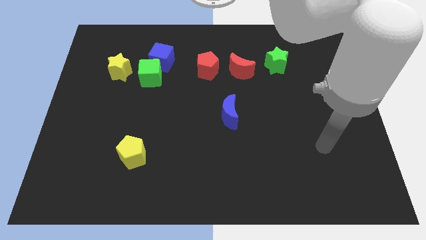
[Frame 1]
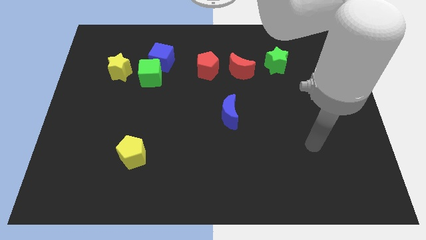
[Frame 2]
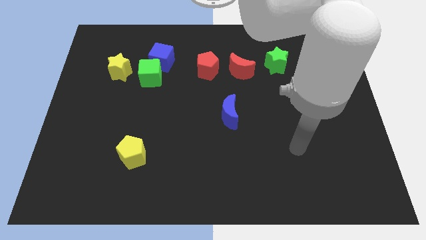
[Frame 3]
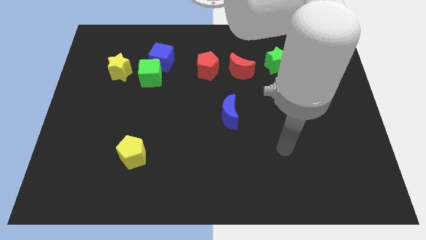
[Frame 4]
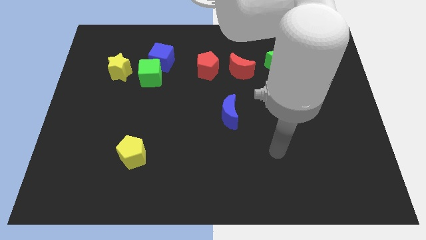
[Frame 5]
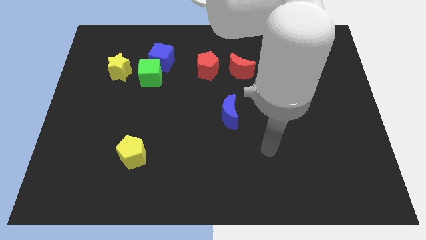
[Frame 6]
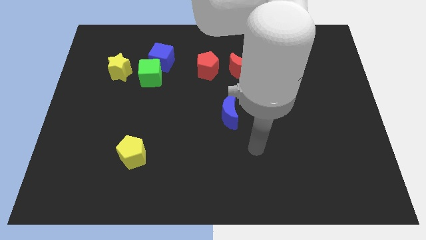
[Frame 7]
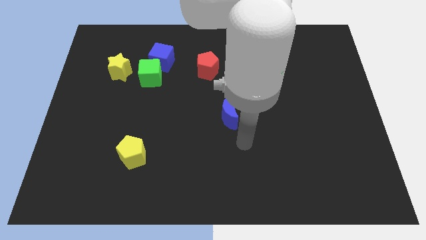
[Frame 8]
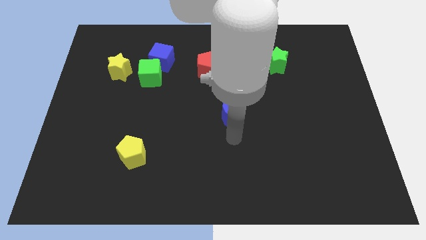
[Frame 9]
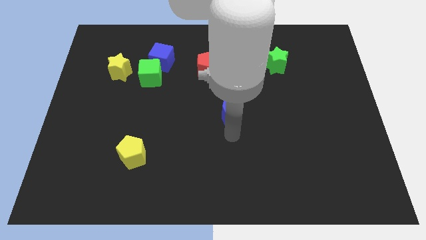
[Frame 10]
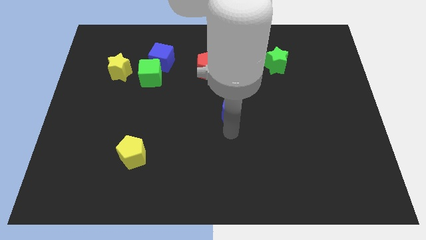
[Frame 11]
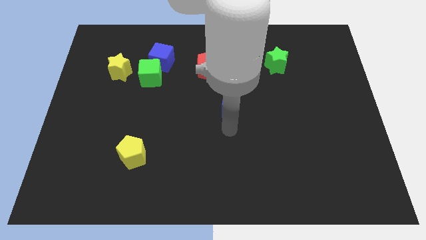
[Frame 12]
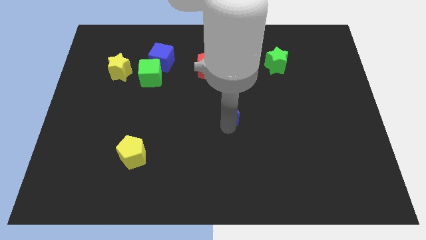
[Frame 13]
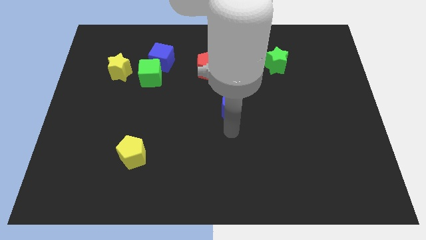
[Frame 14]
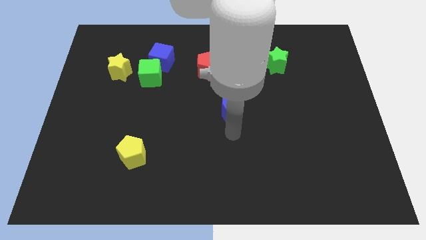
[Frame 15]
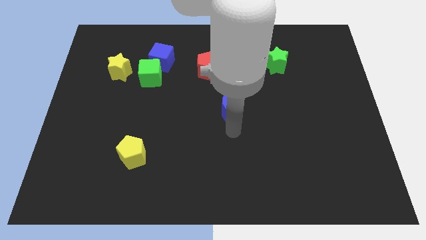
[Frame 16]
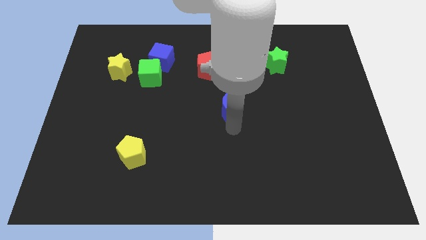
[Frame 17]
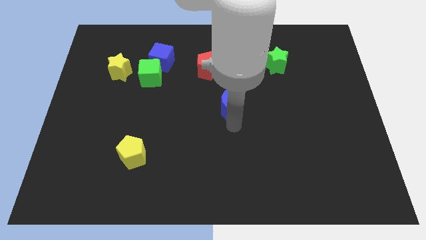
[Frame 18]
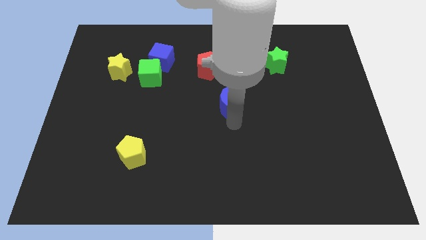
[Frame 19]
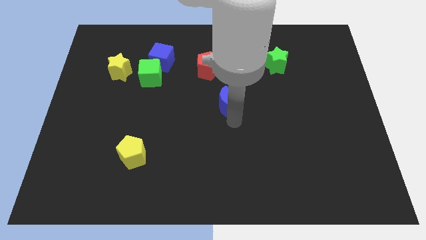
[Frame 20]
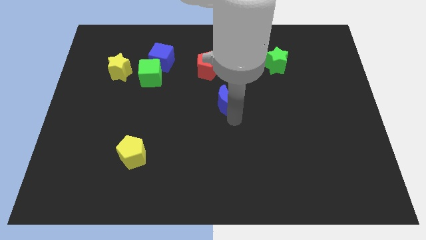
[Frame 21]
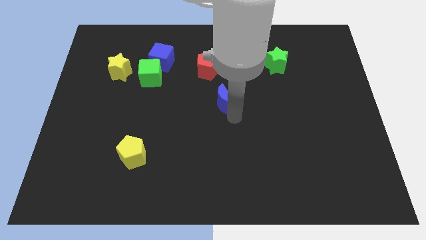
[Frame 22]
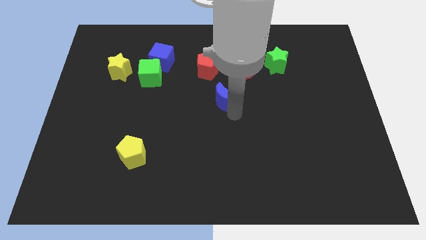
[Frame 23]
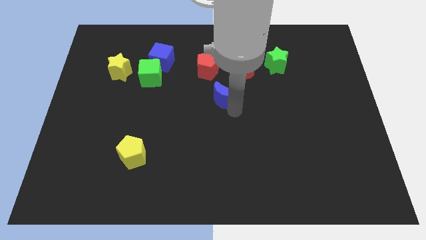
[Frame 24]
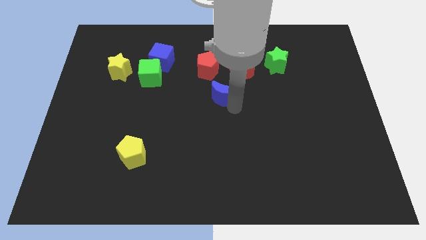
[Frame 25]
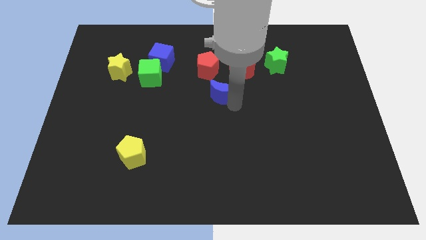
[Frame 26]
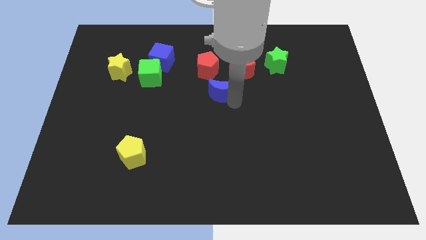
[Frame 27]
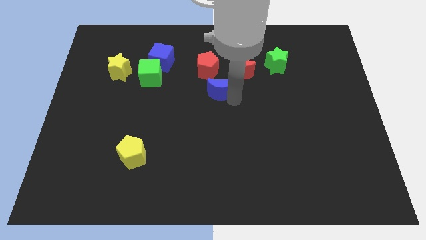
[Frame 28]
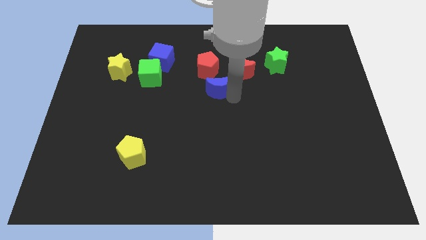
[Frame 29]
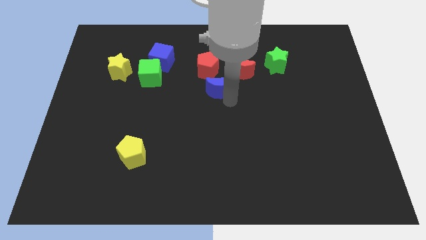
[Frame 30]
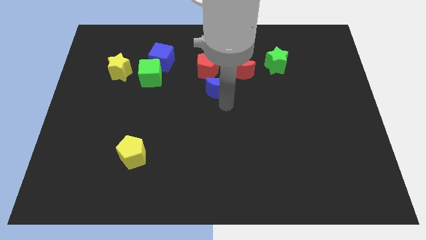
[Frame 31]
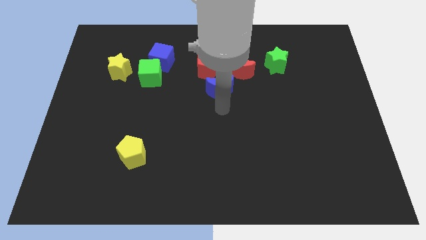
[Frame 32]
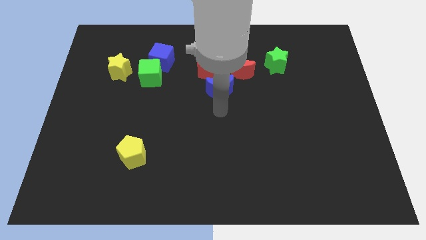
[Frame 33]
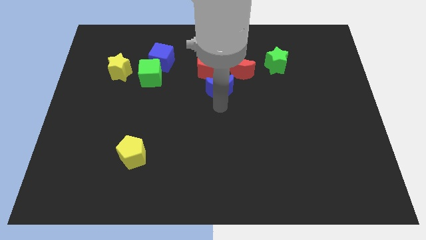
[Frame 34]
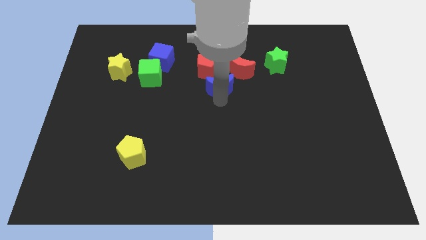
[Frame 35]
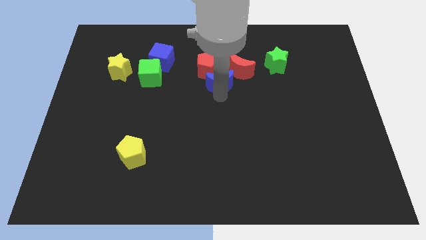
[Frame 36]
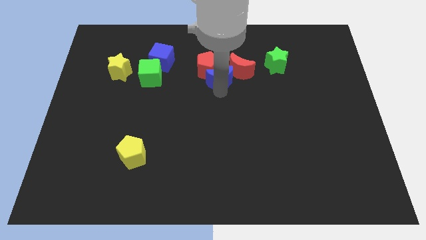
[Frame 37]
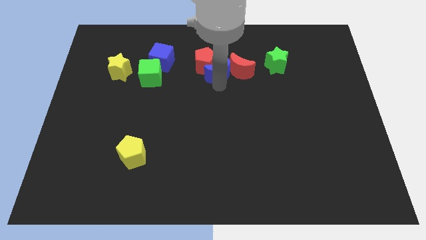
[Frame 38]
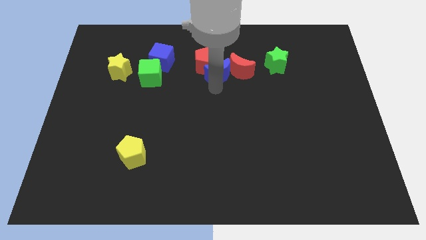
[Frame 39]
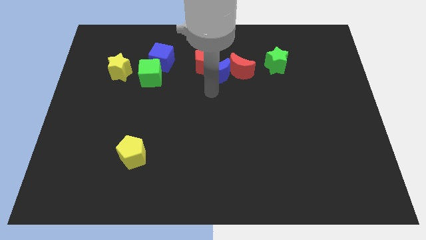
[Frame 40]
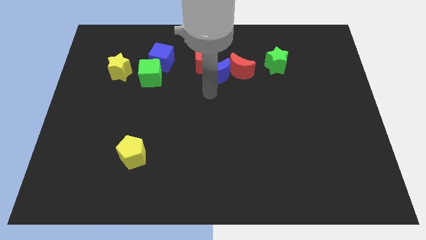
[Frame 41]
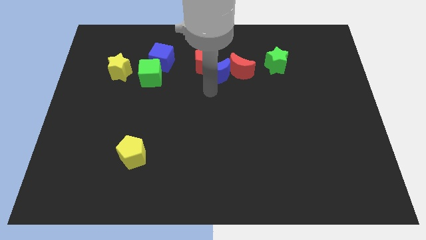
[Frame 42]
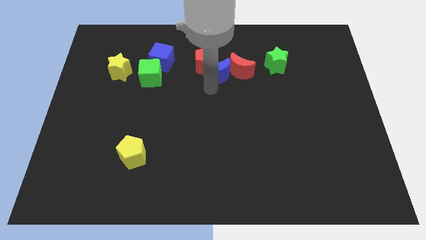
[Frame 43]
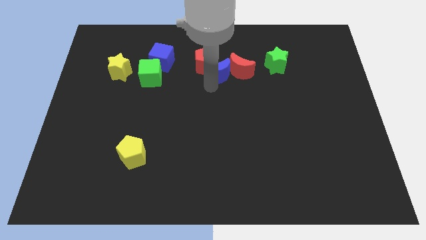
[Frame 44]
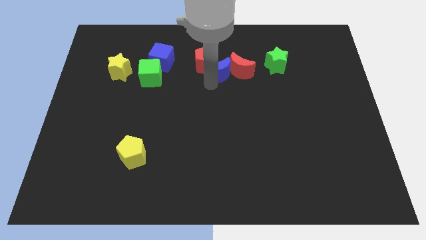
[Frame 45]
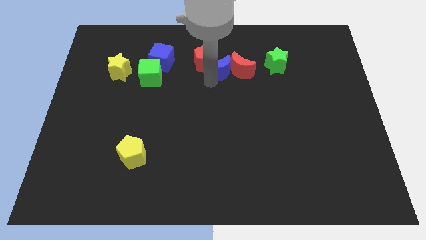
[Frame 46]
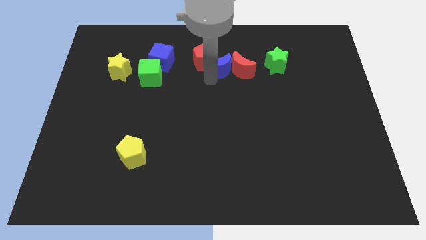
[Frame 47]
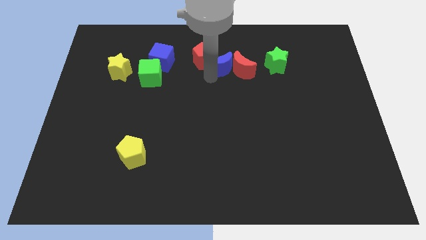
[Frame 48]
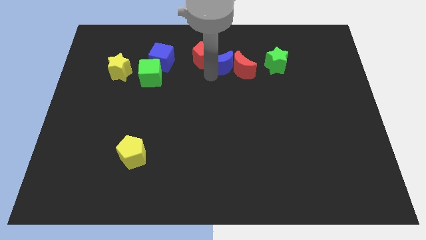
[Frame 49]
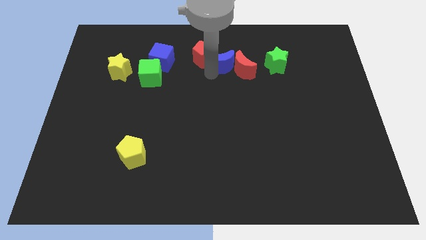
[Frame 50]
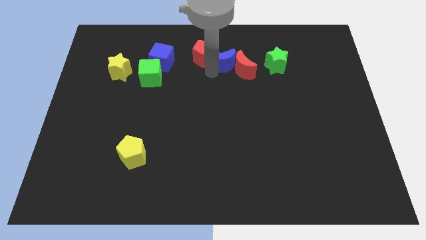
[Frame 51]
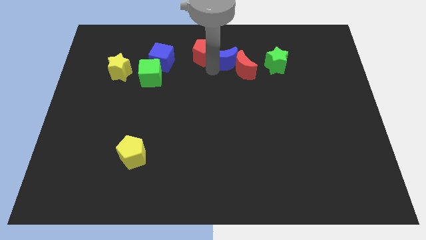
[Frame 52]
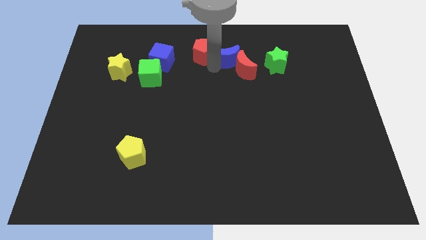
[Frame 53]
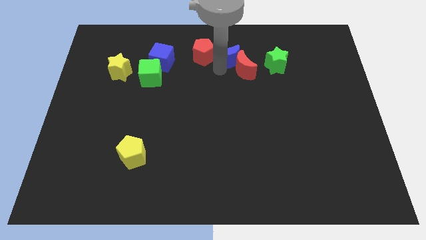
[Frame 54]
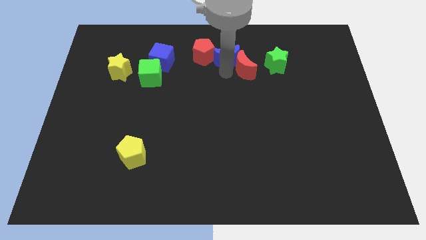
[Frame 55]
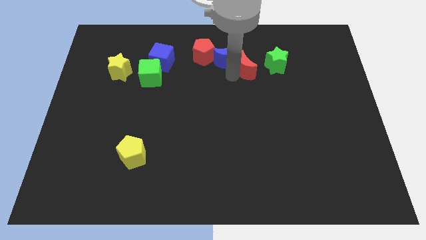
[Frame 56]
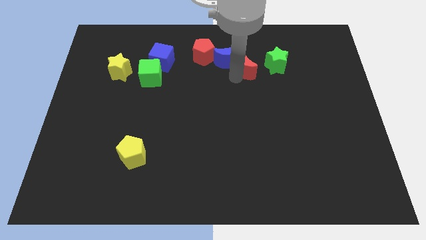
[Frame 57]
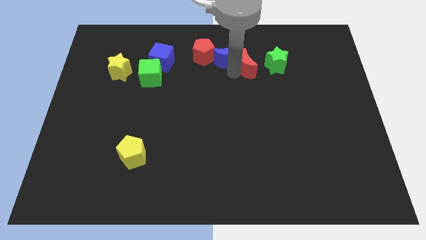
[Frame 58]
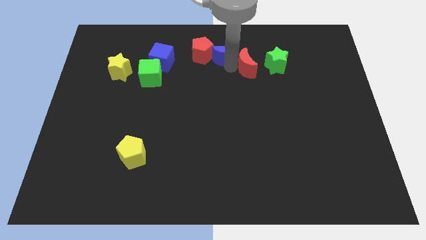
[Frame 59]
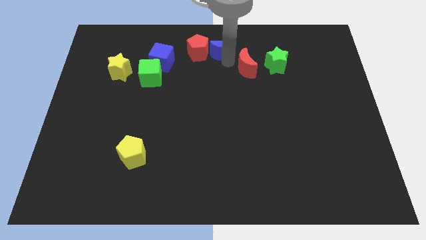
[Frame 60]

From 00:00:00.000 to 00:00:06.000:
slide the blue moon to the top
